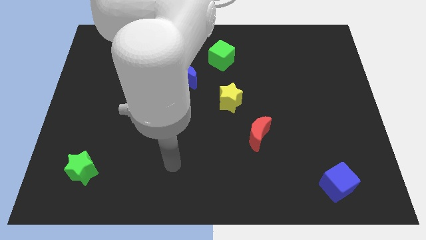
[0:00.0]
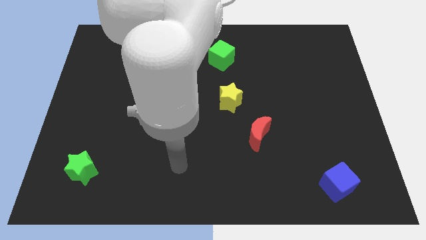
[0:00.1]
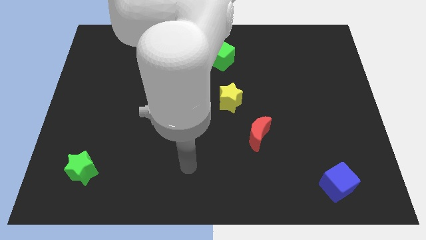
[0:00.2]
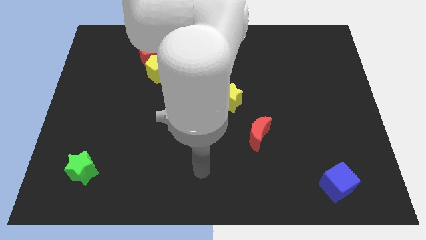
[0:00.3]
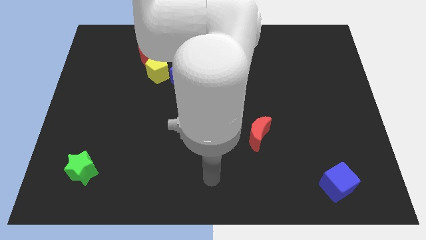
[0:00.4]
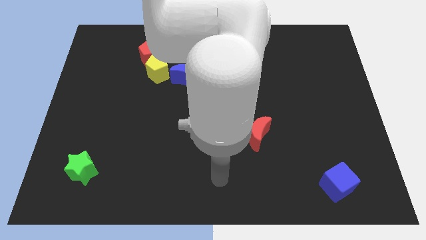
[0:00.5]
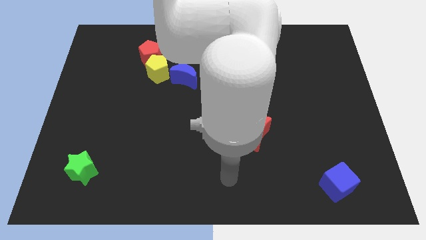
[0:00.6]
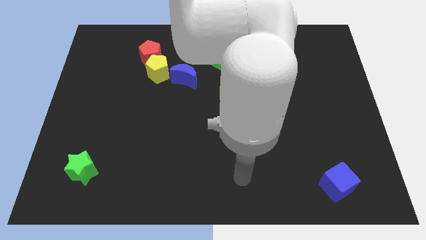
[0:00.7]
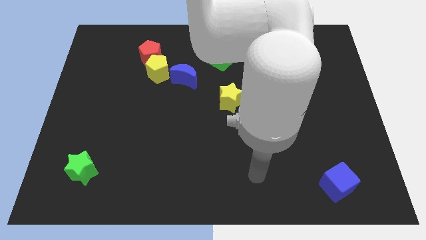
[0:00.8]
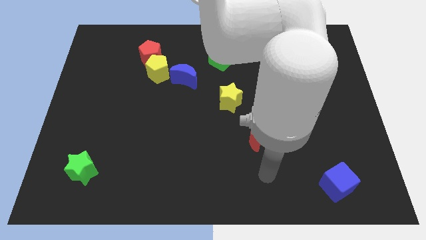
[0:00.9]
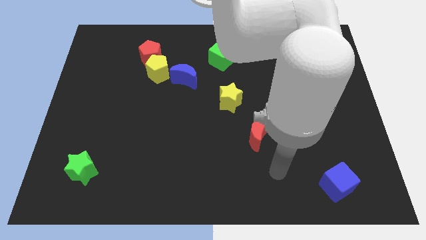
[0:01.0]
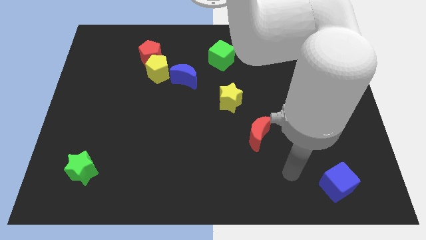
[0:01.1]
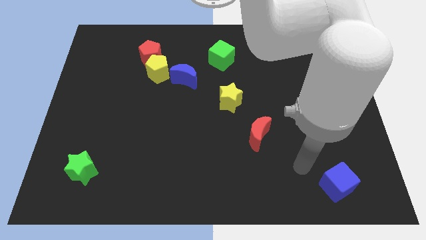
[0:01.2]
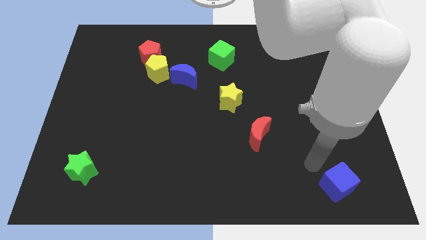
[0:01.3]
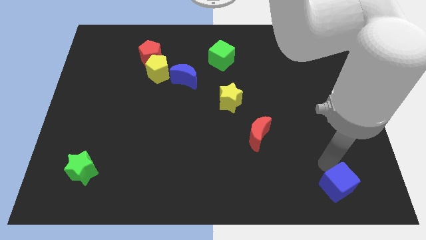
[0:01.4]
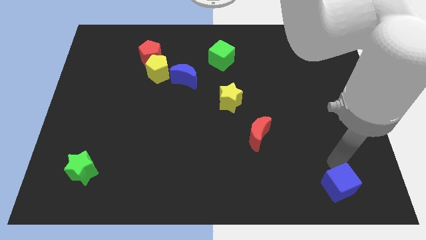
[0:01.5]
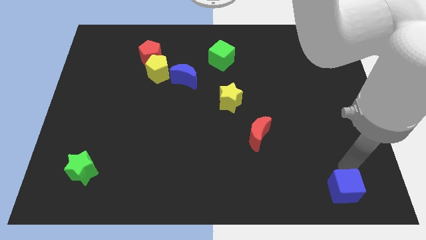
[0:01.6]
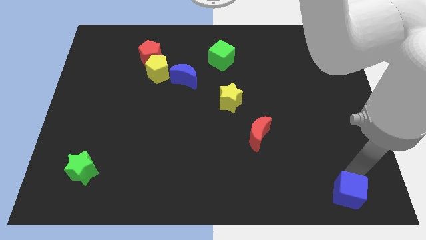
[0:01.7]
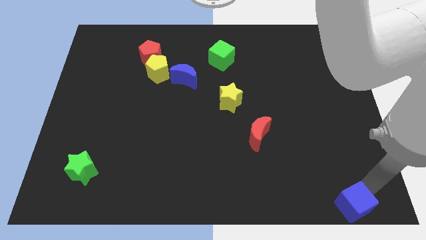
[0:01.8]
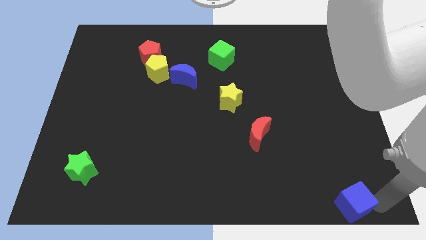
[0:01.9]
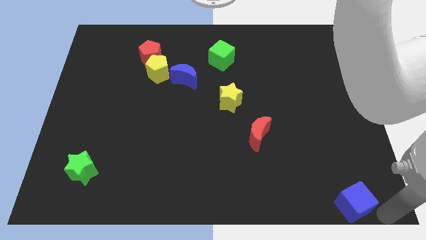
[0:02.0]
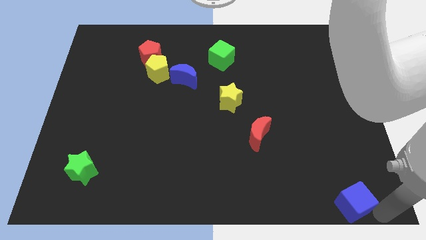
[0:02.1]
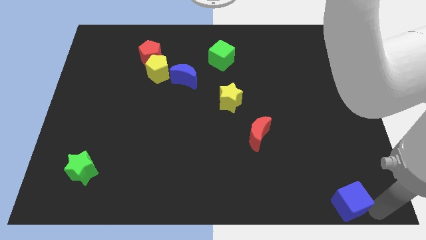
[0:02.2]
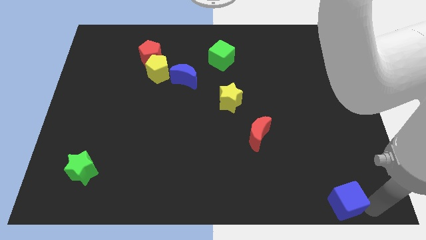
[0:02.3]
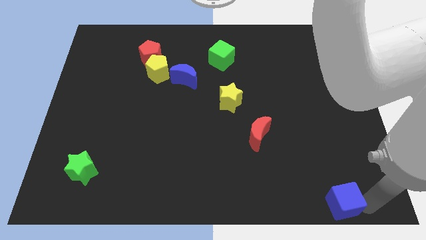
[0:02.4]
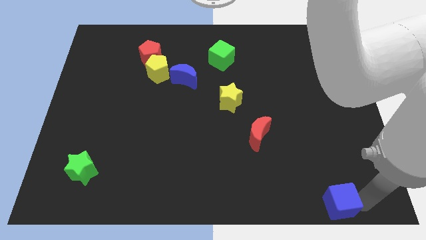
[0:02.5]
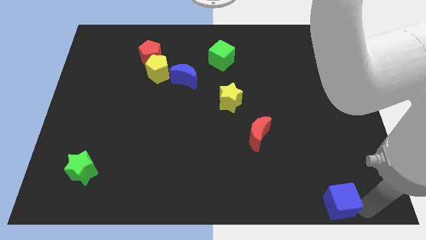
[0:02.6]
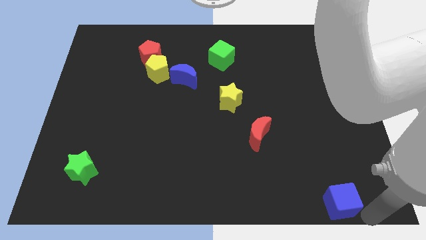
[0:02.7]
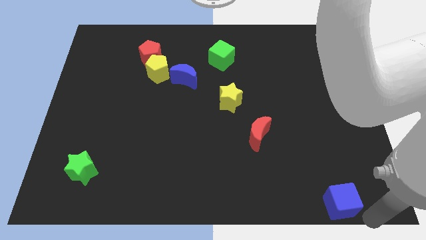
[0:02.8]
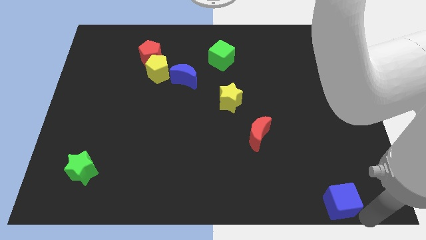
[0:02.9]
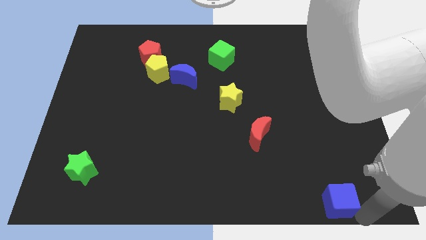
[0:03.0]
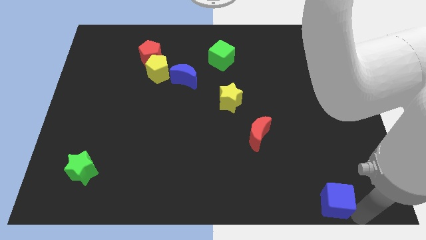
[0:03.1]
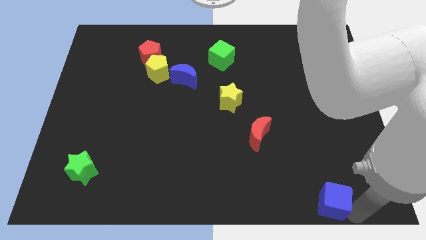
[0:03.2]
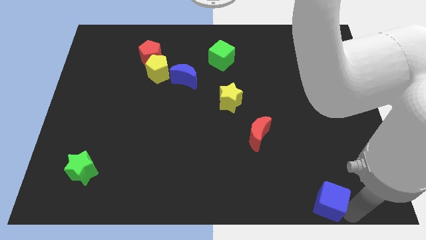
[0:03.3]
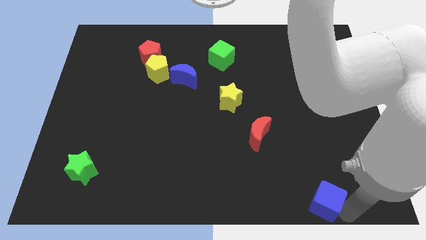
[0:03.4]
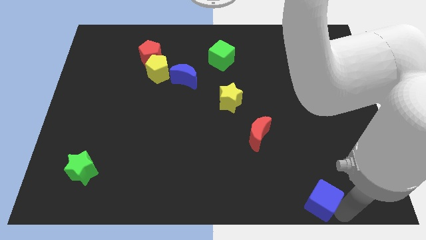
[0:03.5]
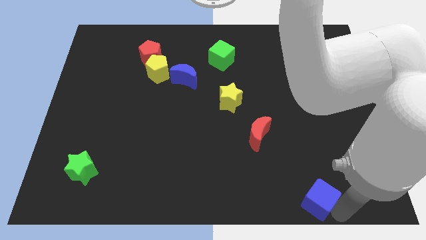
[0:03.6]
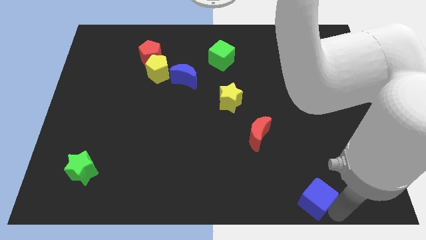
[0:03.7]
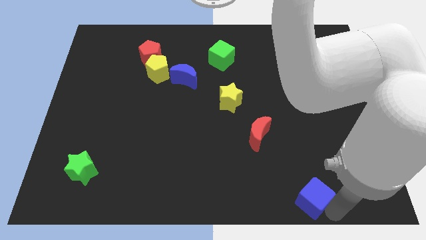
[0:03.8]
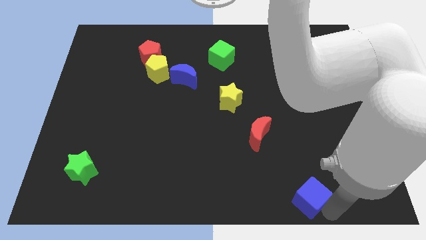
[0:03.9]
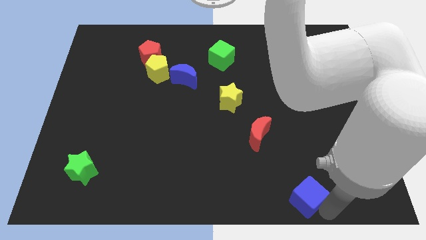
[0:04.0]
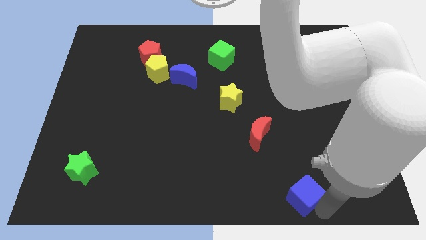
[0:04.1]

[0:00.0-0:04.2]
slide the blue cube to the left a little bit

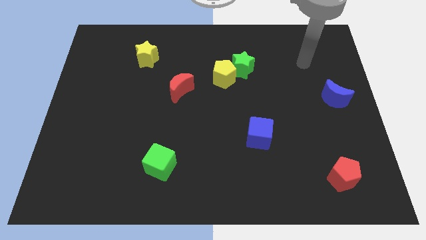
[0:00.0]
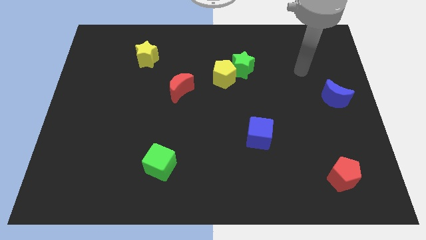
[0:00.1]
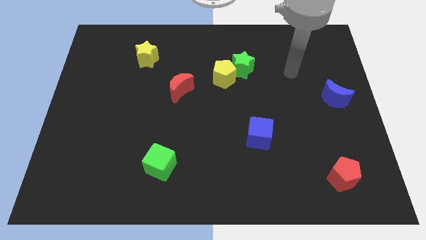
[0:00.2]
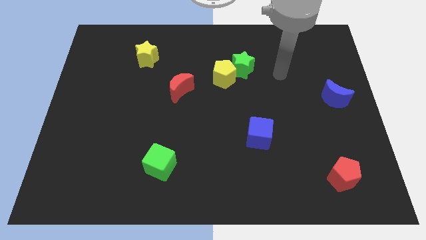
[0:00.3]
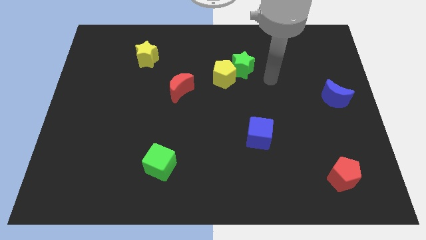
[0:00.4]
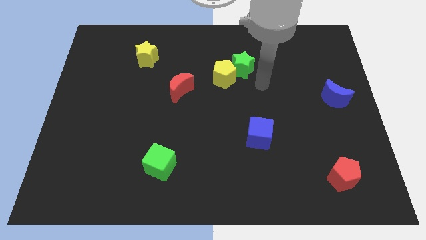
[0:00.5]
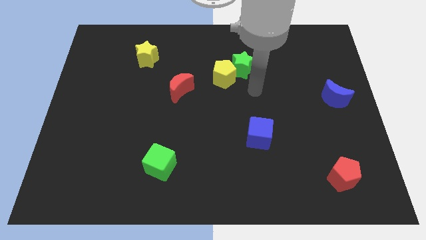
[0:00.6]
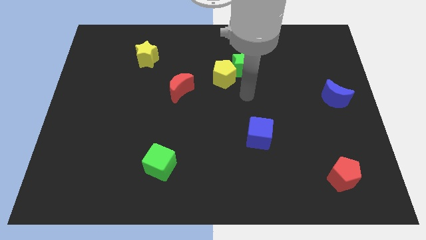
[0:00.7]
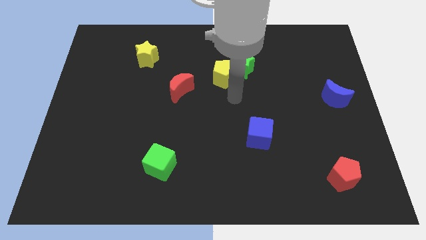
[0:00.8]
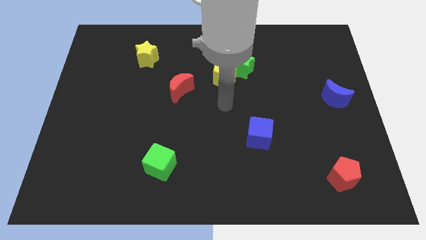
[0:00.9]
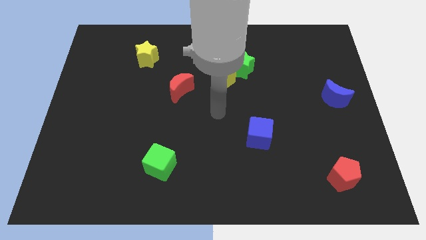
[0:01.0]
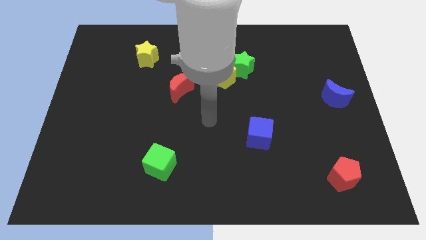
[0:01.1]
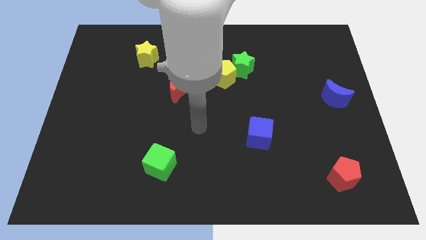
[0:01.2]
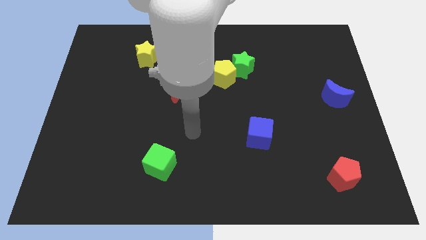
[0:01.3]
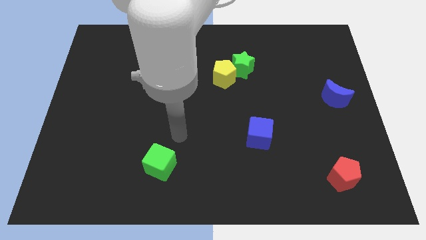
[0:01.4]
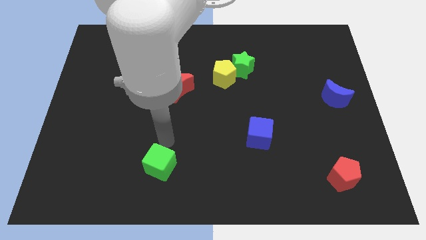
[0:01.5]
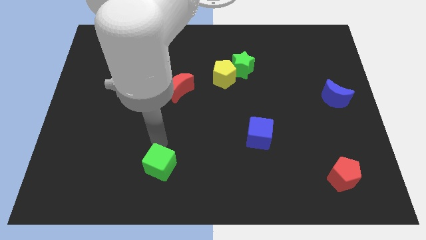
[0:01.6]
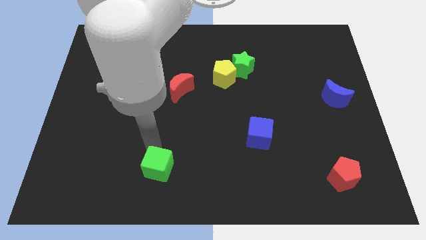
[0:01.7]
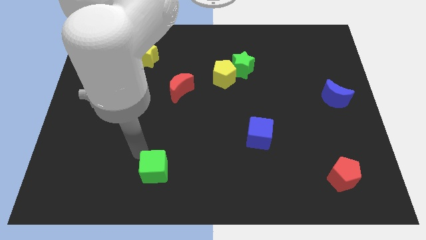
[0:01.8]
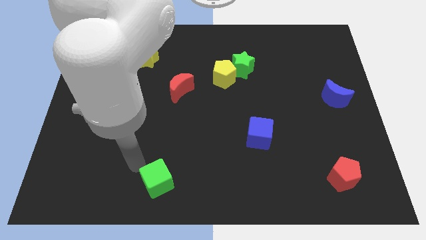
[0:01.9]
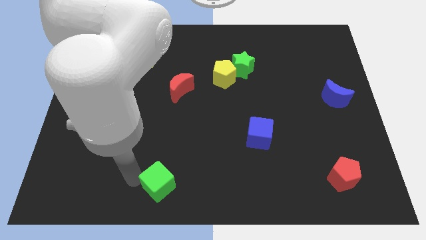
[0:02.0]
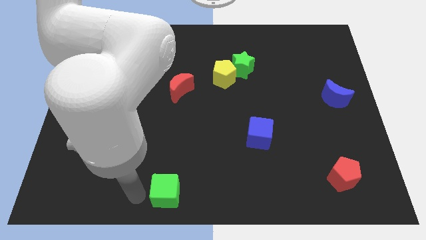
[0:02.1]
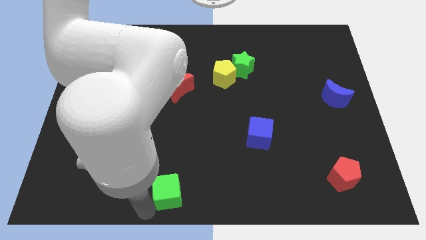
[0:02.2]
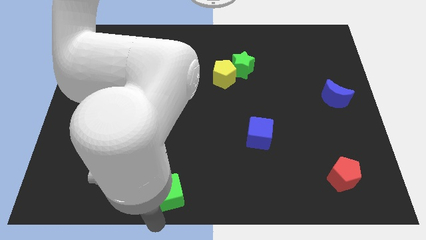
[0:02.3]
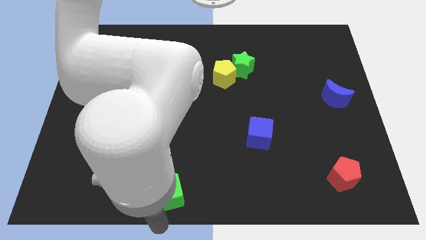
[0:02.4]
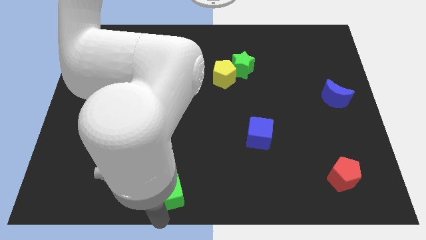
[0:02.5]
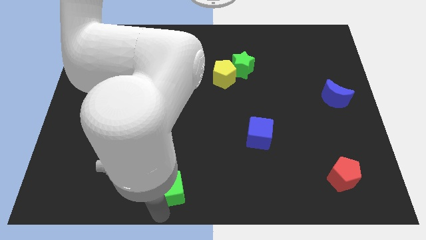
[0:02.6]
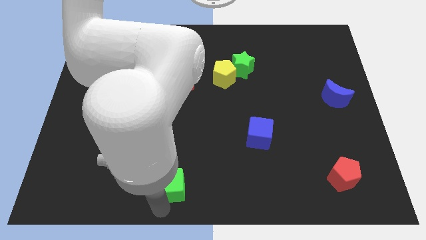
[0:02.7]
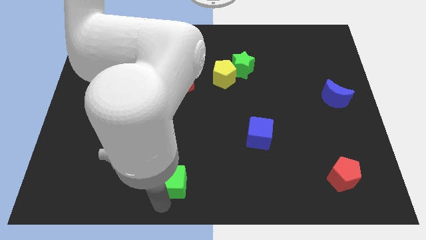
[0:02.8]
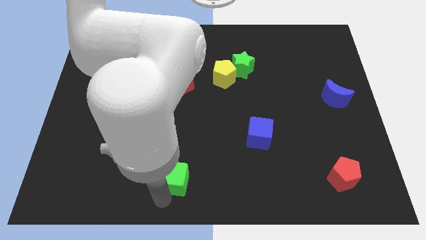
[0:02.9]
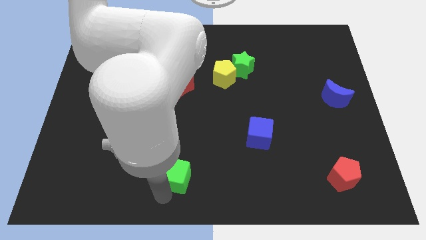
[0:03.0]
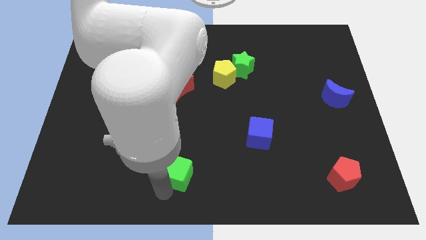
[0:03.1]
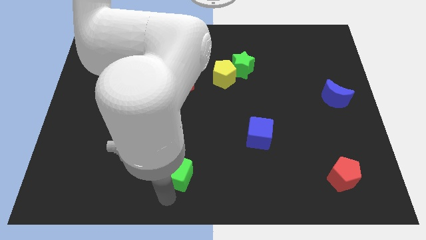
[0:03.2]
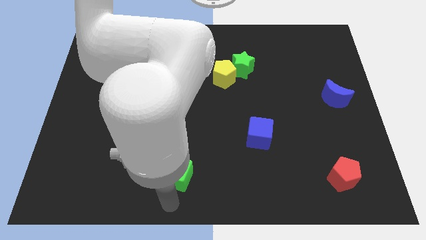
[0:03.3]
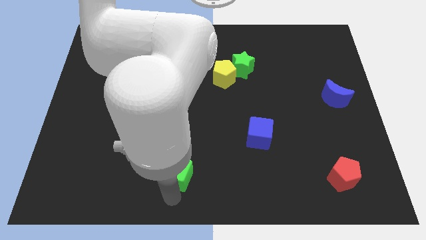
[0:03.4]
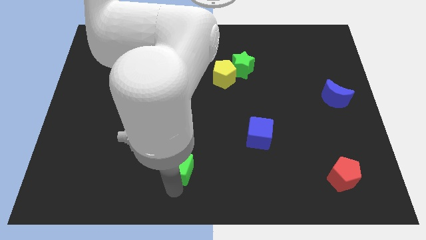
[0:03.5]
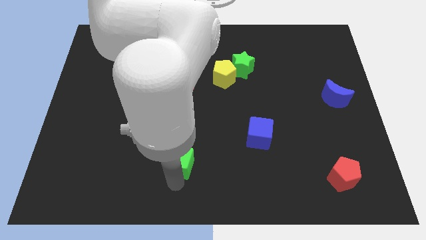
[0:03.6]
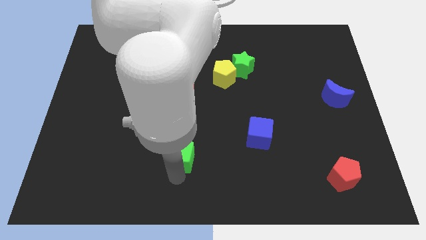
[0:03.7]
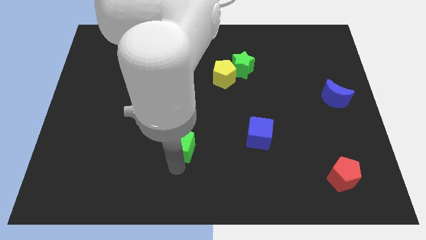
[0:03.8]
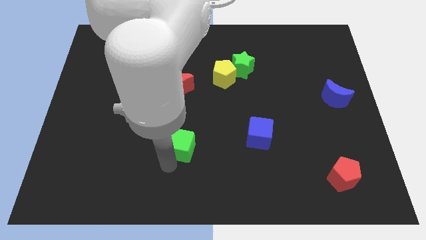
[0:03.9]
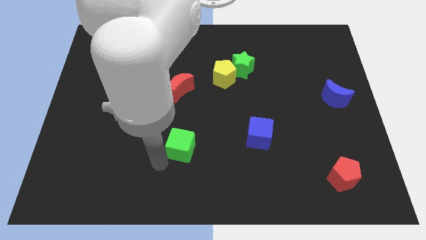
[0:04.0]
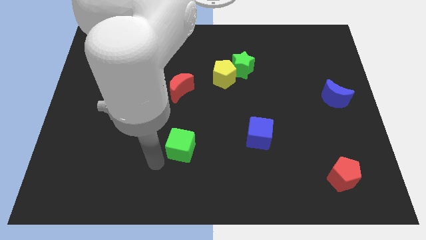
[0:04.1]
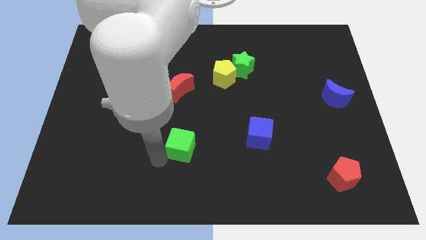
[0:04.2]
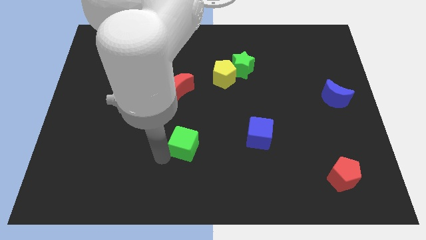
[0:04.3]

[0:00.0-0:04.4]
slide the green cube diagonally up and to the right a bit
